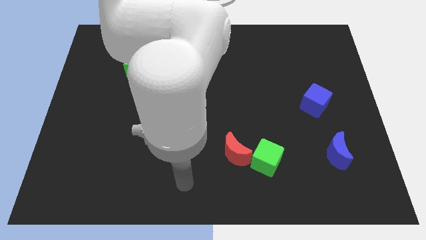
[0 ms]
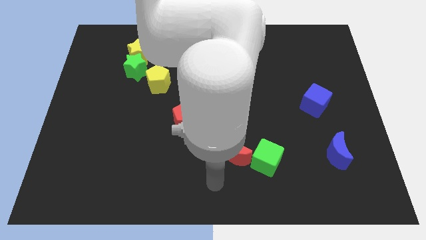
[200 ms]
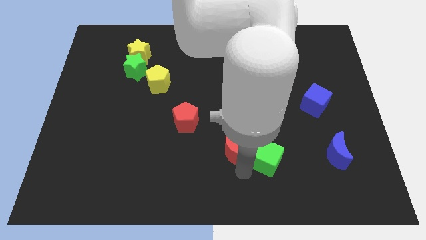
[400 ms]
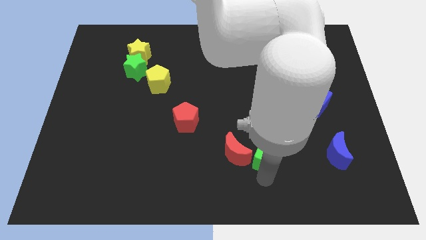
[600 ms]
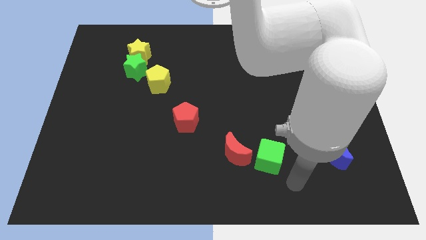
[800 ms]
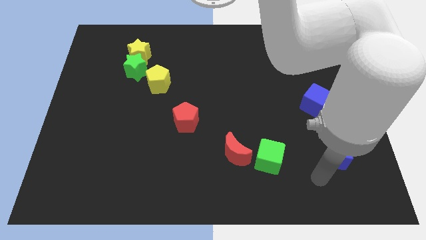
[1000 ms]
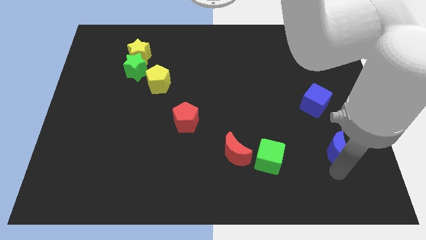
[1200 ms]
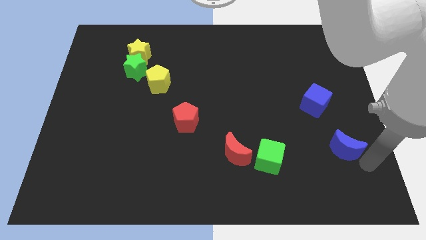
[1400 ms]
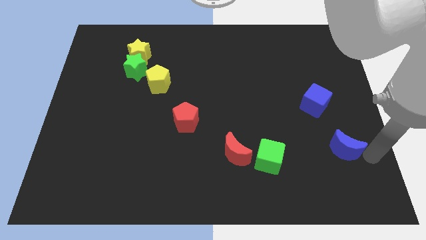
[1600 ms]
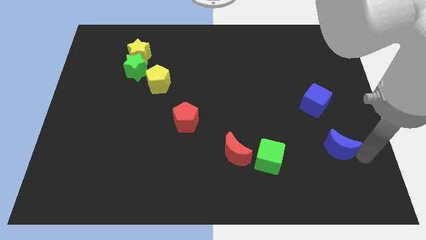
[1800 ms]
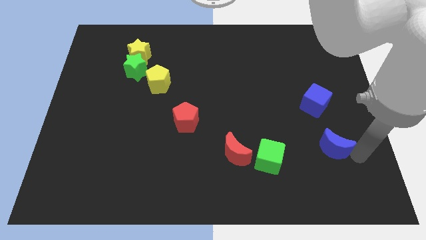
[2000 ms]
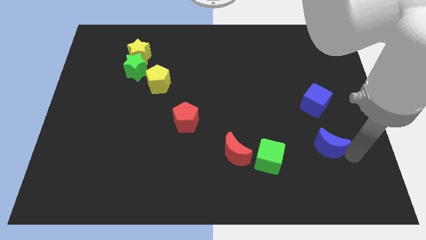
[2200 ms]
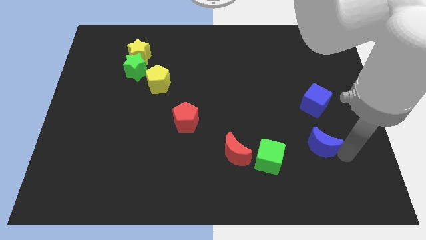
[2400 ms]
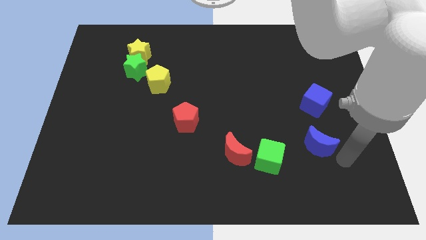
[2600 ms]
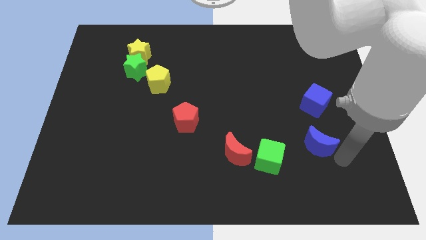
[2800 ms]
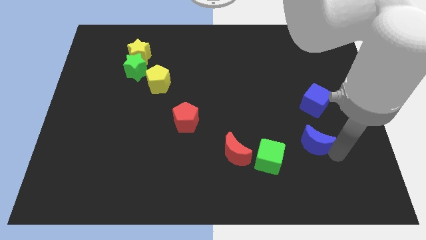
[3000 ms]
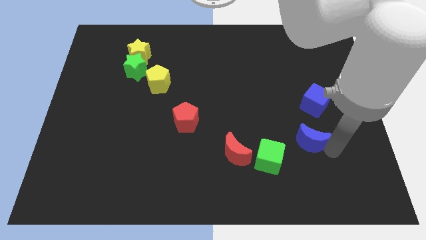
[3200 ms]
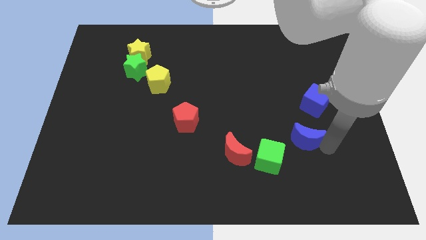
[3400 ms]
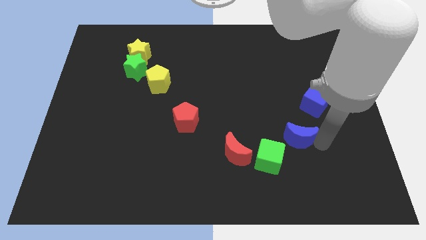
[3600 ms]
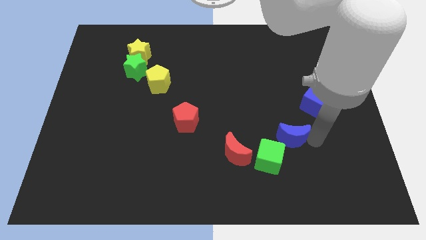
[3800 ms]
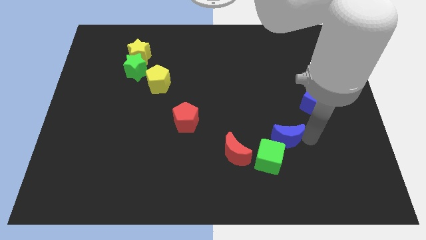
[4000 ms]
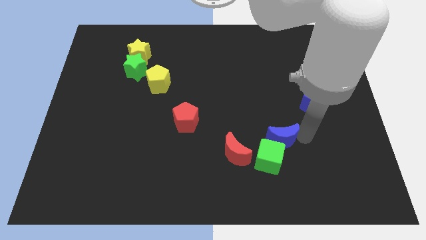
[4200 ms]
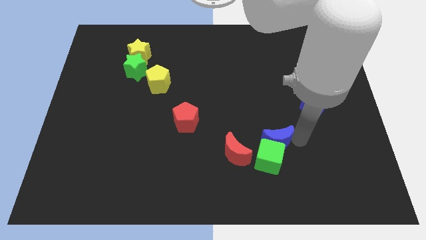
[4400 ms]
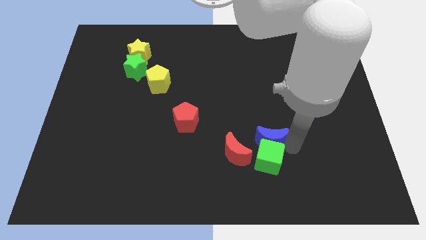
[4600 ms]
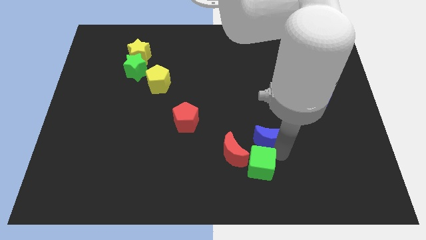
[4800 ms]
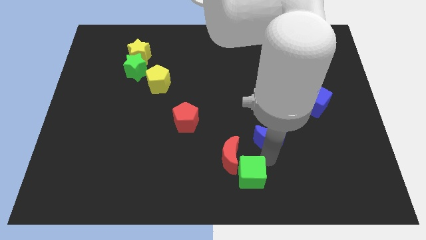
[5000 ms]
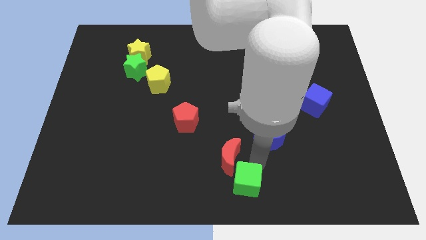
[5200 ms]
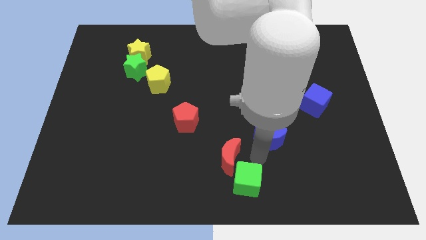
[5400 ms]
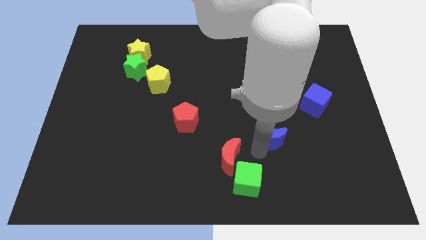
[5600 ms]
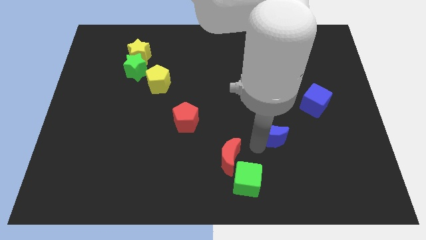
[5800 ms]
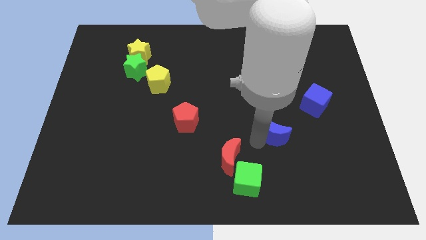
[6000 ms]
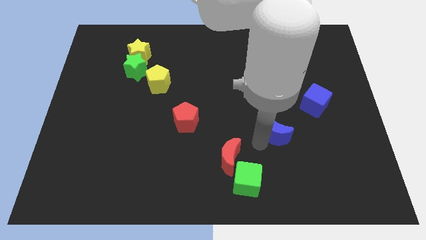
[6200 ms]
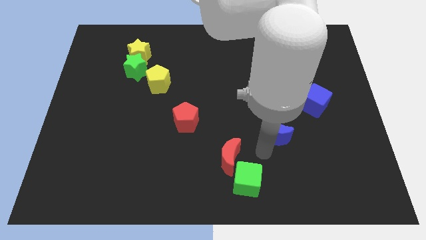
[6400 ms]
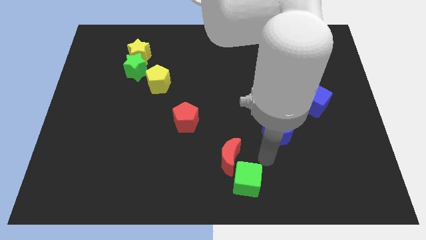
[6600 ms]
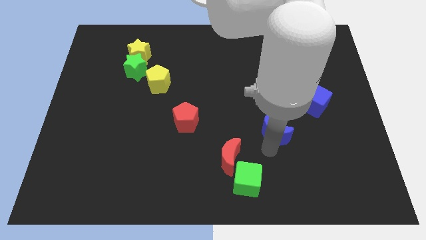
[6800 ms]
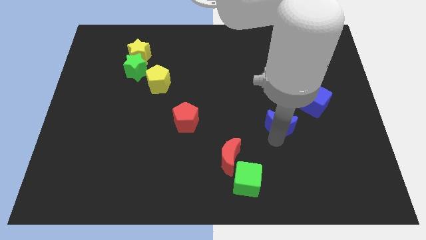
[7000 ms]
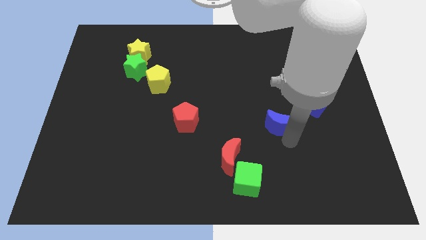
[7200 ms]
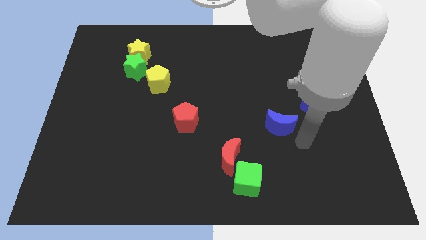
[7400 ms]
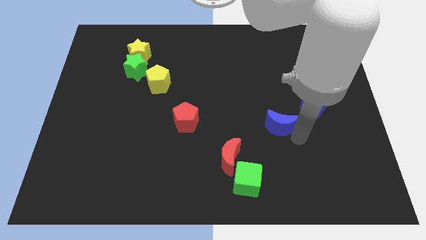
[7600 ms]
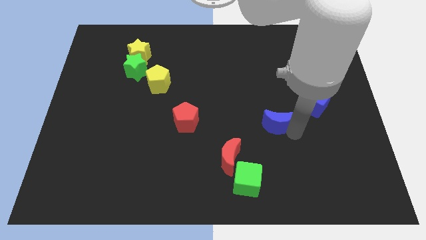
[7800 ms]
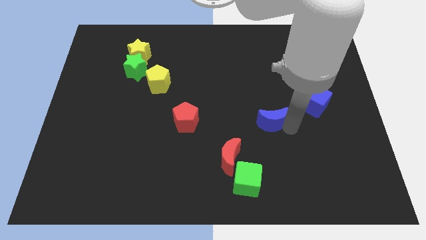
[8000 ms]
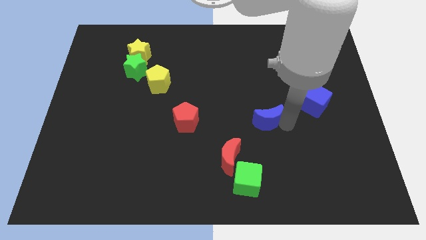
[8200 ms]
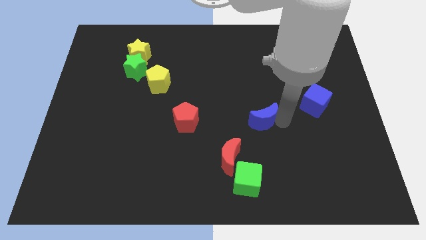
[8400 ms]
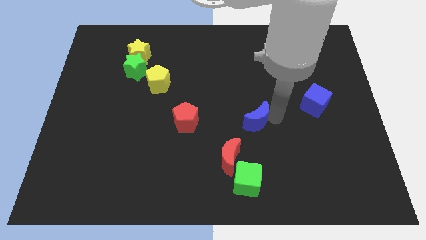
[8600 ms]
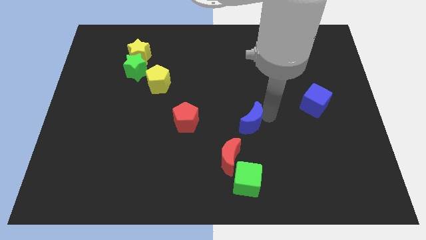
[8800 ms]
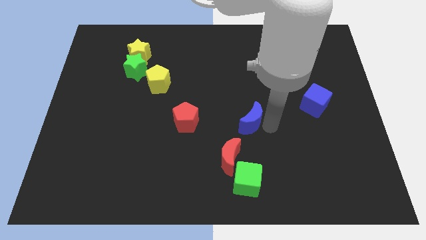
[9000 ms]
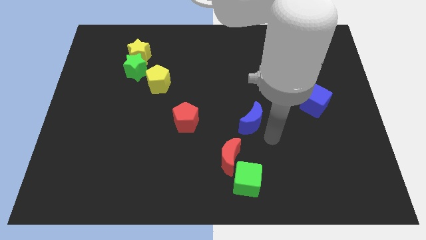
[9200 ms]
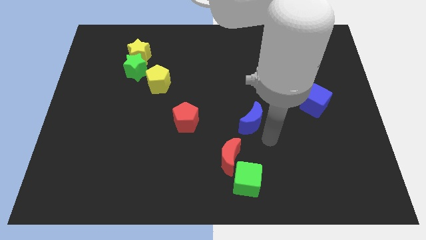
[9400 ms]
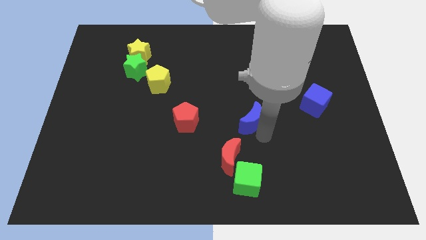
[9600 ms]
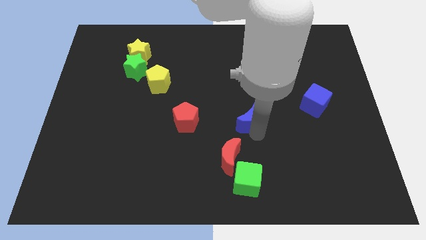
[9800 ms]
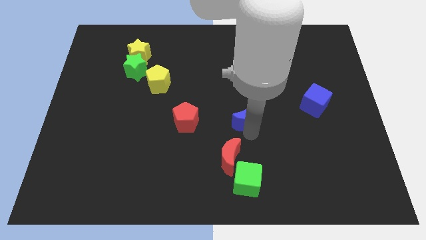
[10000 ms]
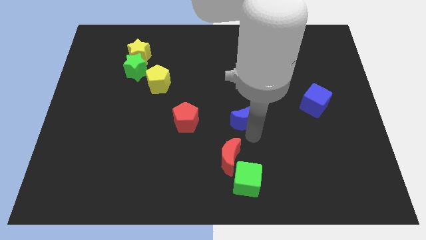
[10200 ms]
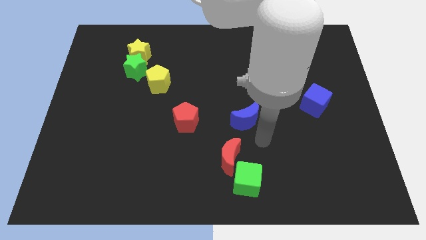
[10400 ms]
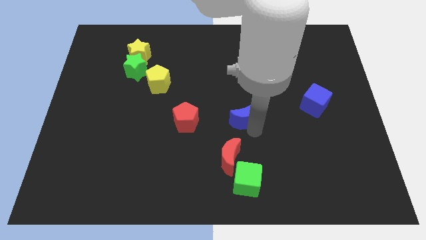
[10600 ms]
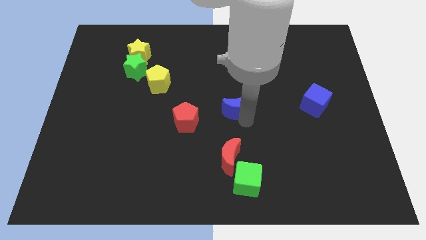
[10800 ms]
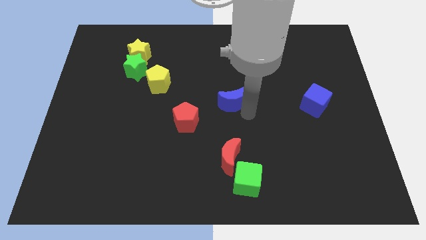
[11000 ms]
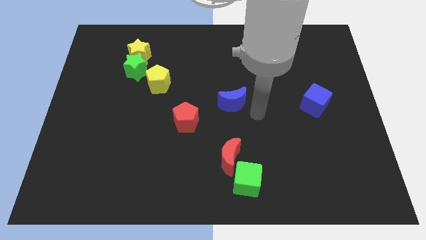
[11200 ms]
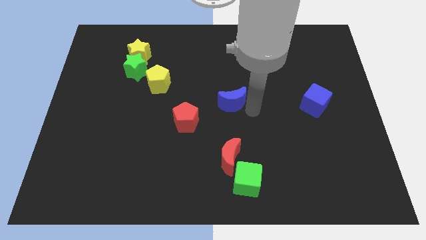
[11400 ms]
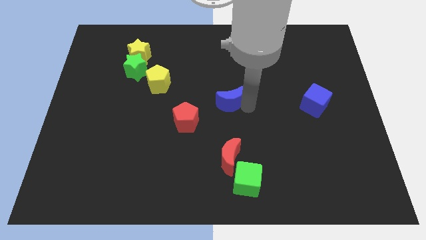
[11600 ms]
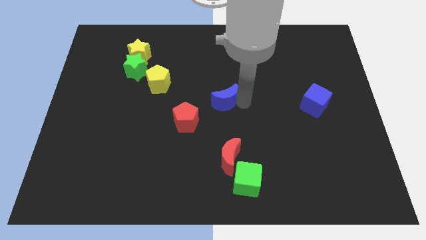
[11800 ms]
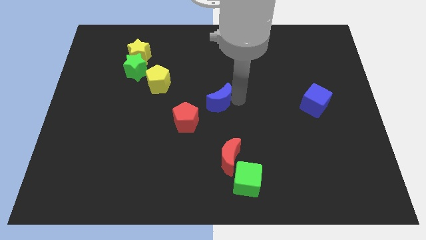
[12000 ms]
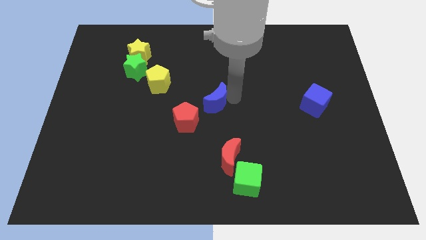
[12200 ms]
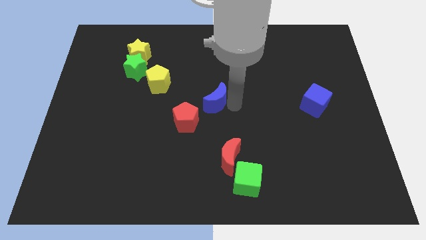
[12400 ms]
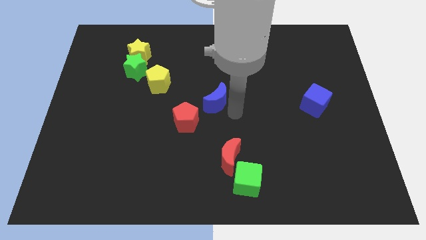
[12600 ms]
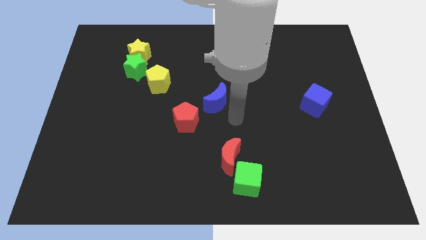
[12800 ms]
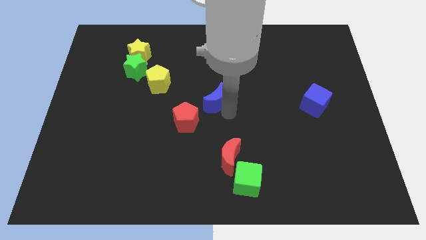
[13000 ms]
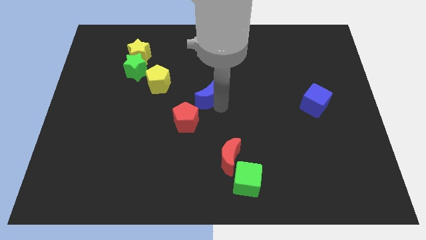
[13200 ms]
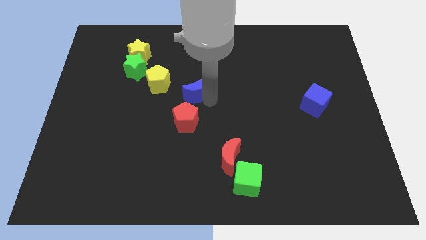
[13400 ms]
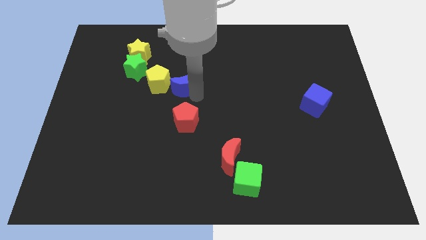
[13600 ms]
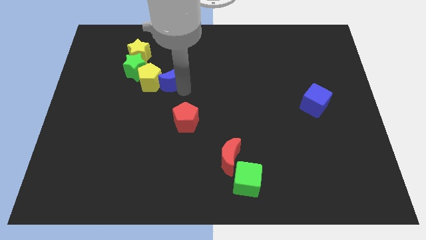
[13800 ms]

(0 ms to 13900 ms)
move the blue moon diagonally up and to the right of the yellow pentagon
